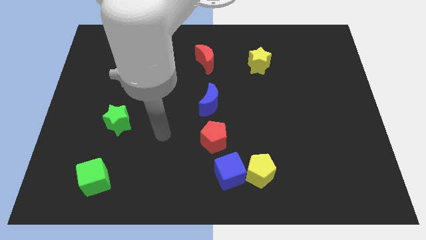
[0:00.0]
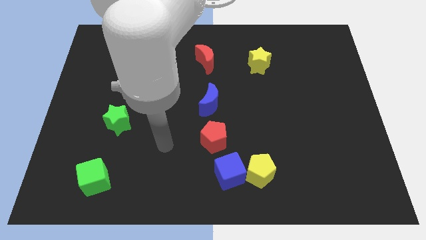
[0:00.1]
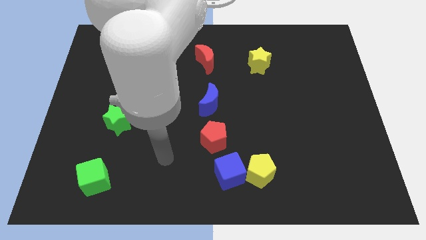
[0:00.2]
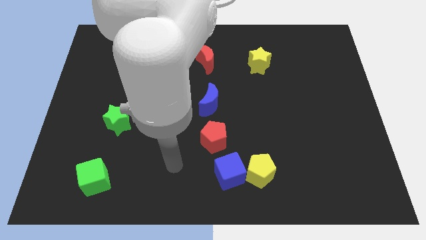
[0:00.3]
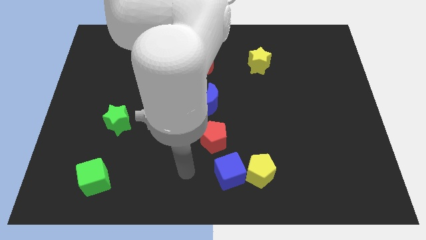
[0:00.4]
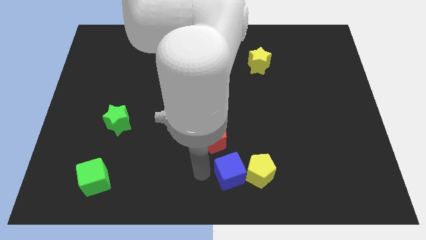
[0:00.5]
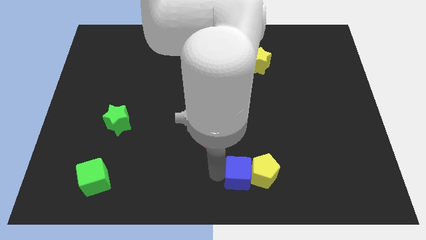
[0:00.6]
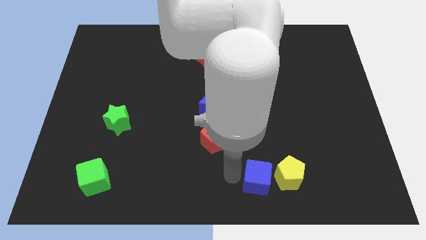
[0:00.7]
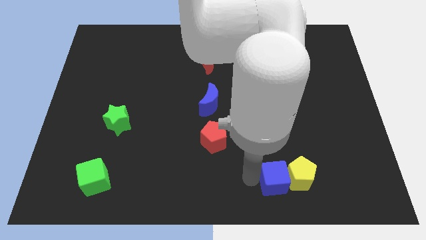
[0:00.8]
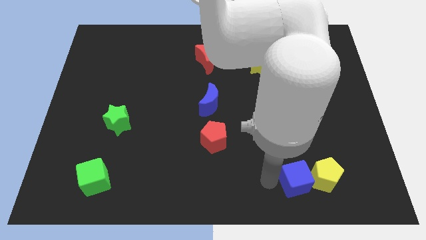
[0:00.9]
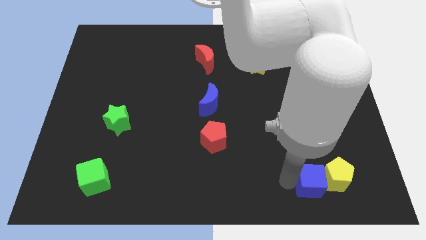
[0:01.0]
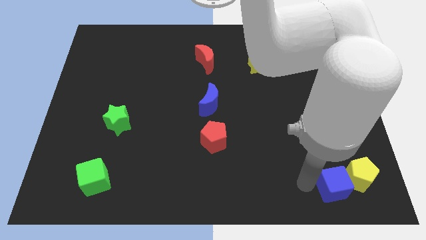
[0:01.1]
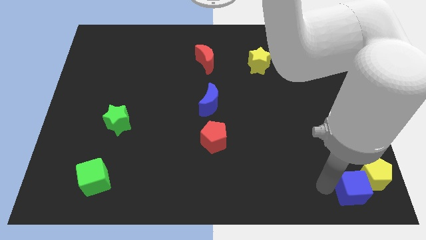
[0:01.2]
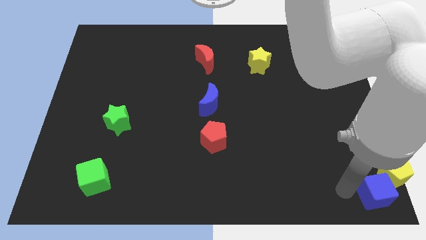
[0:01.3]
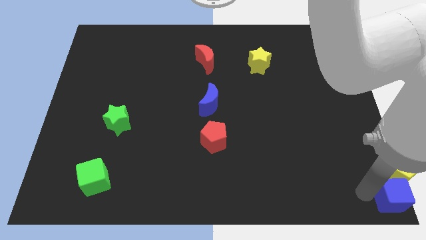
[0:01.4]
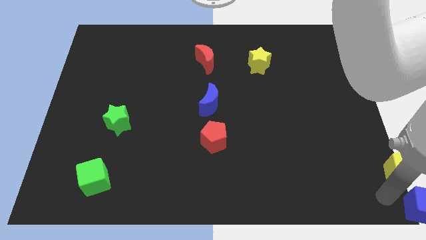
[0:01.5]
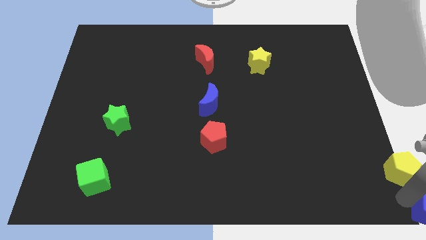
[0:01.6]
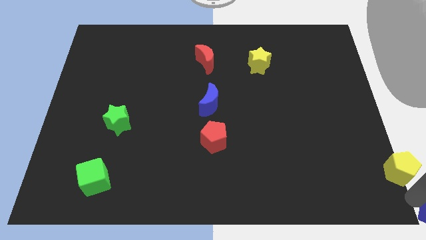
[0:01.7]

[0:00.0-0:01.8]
pull the yellow pentagon apart from the blue cube

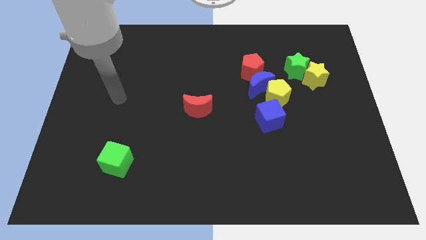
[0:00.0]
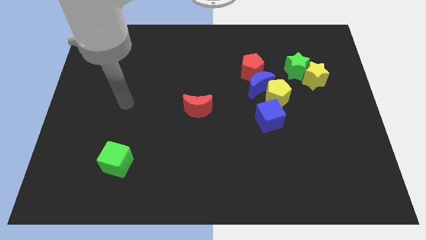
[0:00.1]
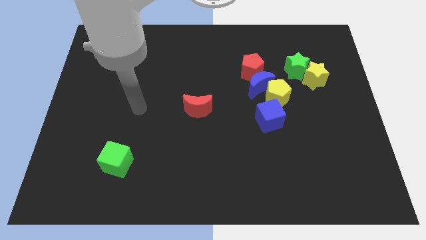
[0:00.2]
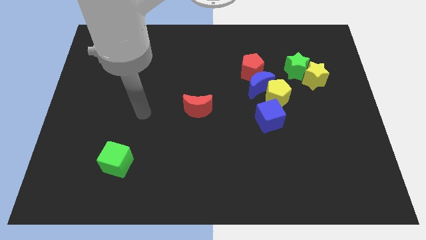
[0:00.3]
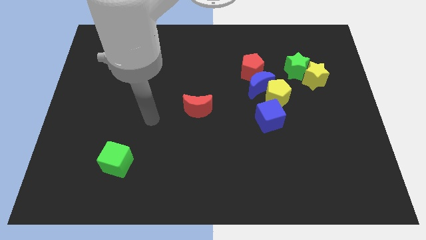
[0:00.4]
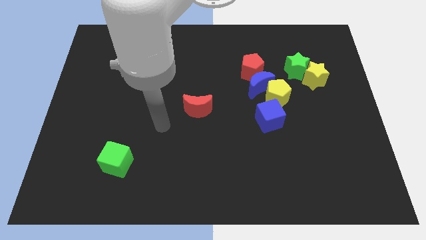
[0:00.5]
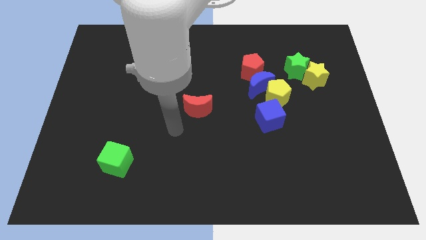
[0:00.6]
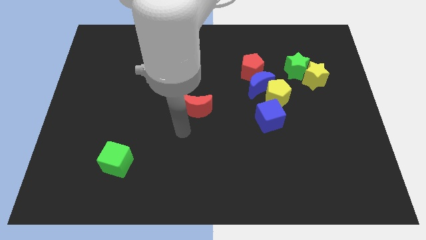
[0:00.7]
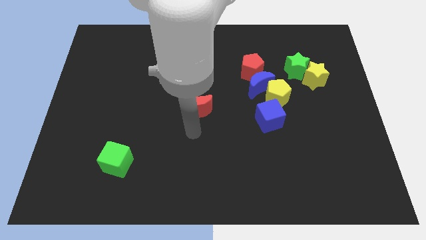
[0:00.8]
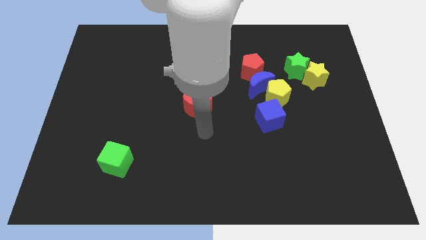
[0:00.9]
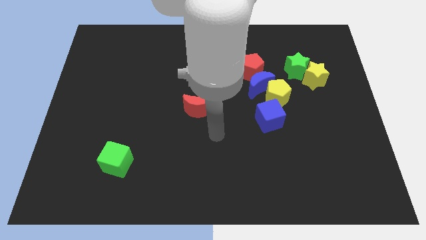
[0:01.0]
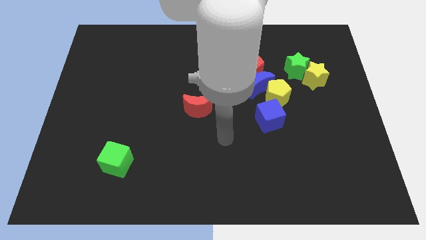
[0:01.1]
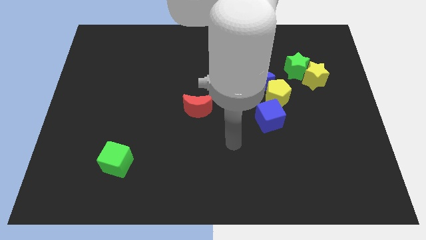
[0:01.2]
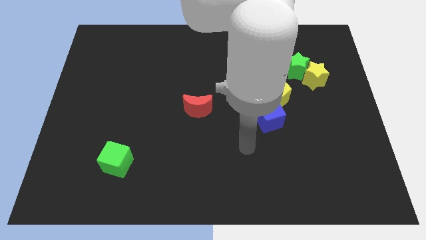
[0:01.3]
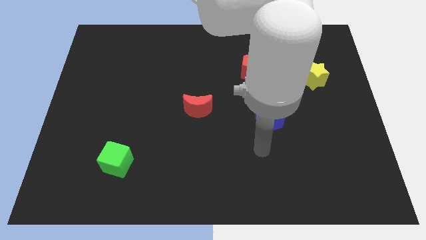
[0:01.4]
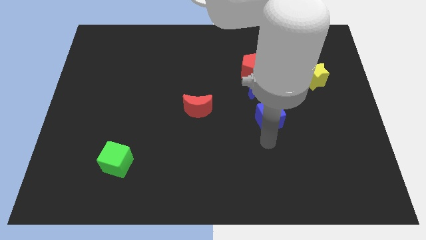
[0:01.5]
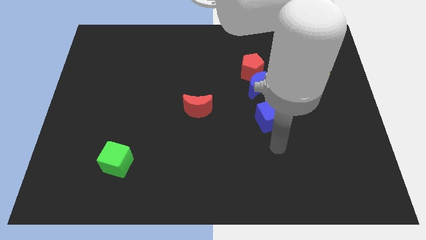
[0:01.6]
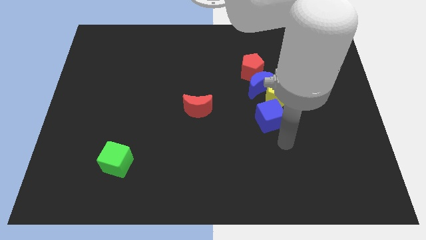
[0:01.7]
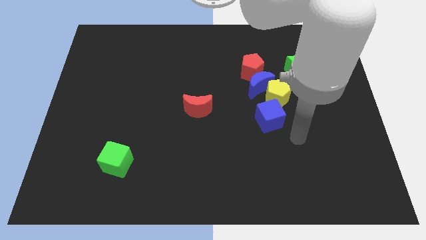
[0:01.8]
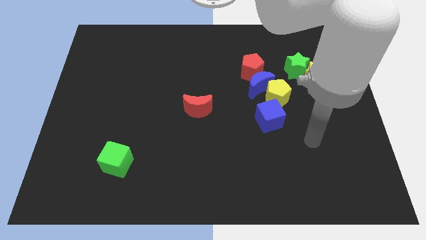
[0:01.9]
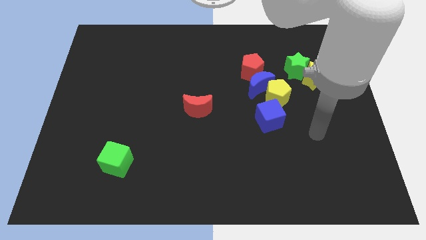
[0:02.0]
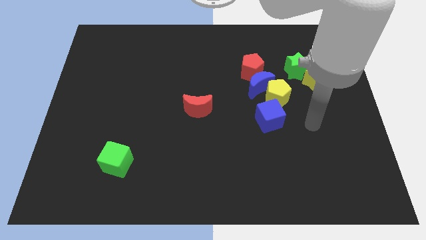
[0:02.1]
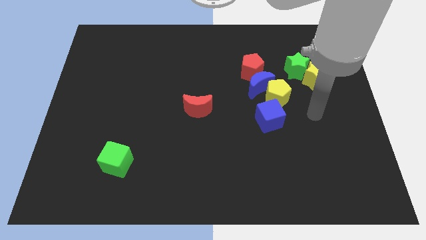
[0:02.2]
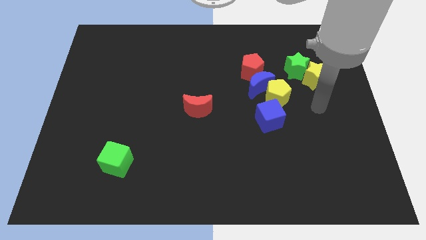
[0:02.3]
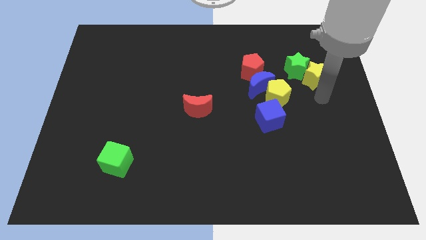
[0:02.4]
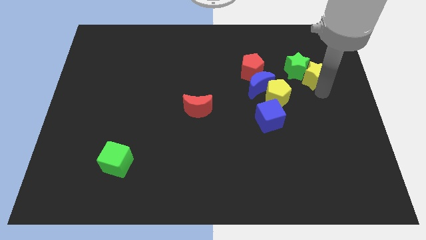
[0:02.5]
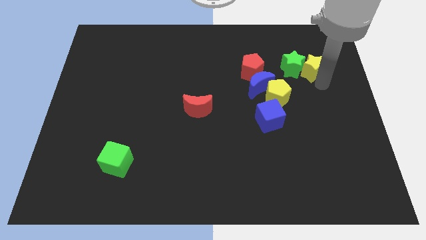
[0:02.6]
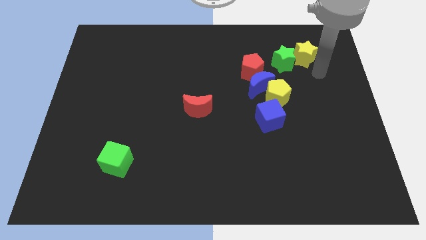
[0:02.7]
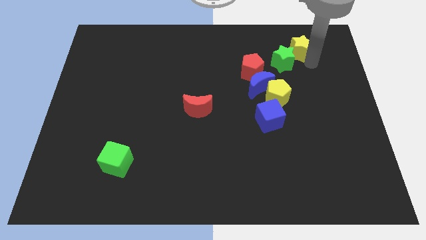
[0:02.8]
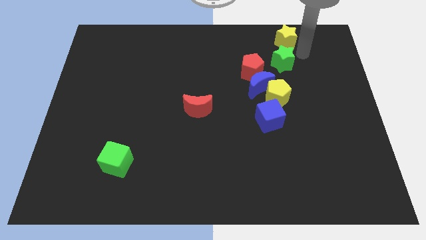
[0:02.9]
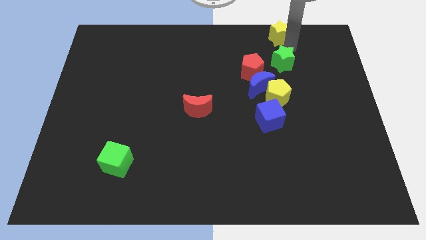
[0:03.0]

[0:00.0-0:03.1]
move the green star away from the yellow star

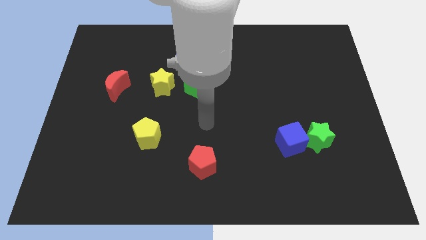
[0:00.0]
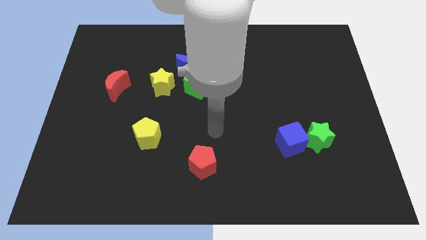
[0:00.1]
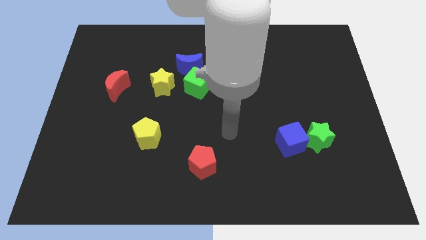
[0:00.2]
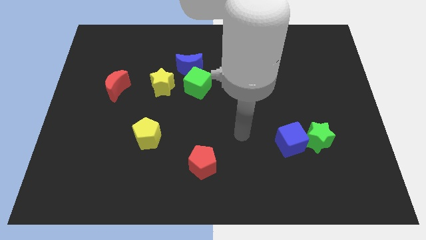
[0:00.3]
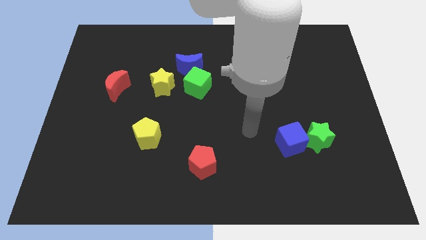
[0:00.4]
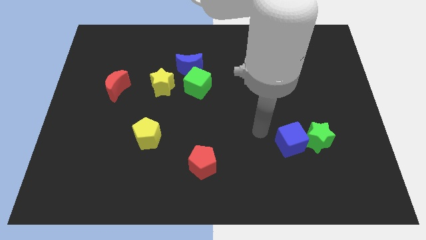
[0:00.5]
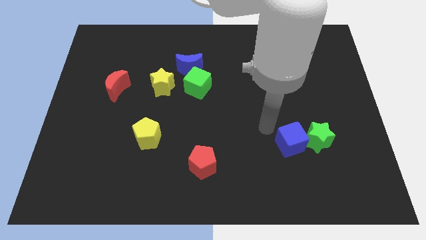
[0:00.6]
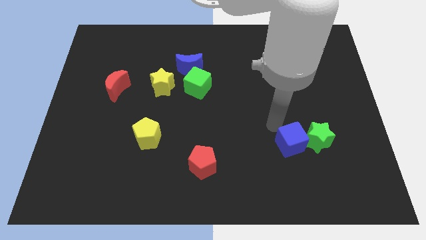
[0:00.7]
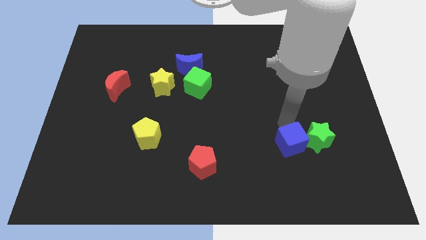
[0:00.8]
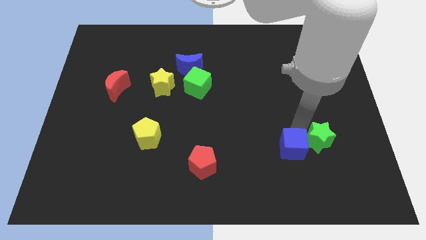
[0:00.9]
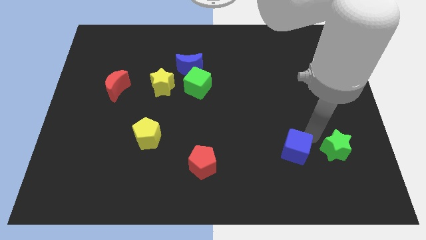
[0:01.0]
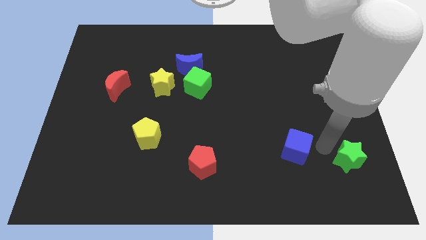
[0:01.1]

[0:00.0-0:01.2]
move the blue cube away from the green star

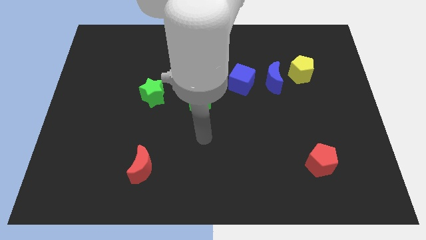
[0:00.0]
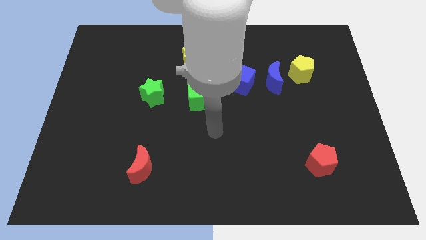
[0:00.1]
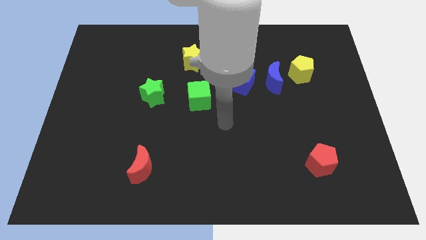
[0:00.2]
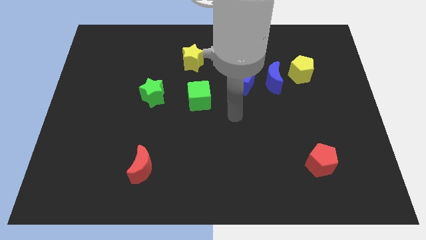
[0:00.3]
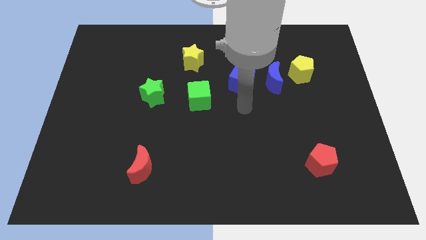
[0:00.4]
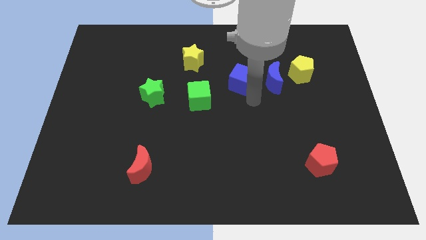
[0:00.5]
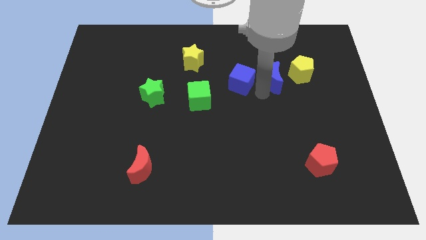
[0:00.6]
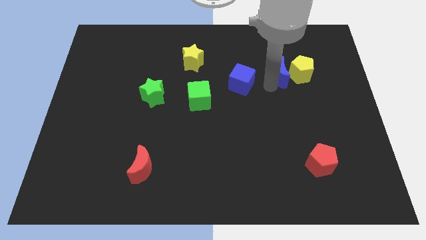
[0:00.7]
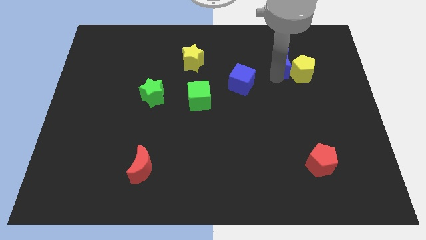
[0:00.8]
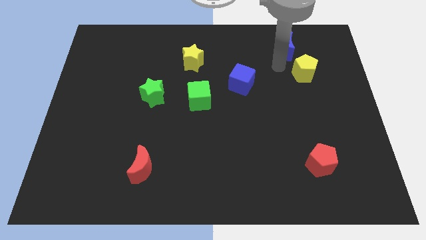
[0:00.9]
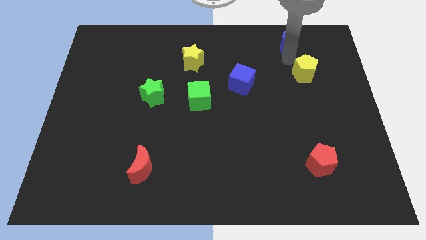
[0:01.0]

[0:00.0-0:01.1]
move the yellow pentagon away from the blue moon

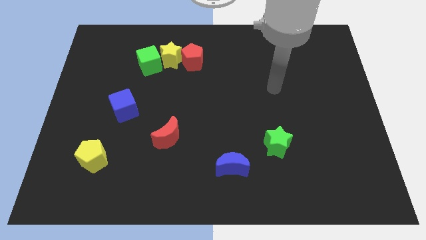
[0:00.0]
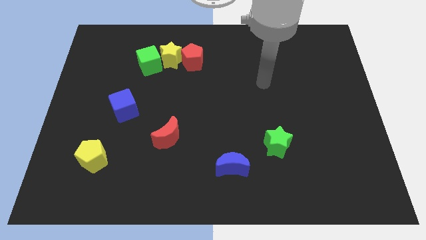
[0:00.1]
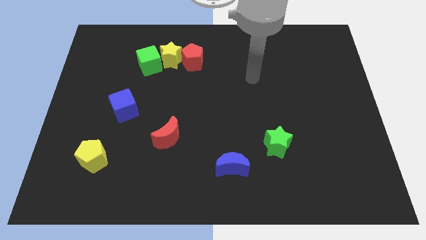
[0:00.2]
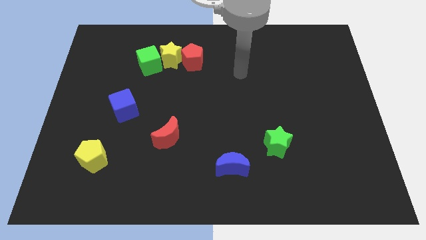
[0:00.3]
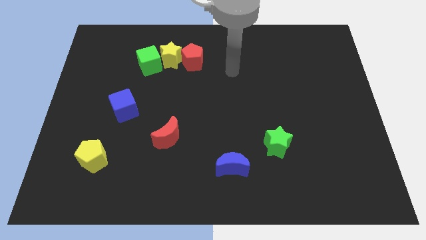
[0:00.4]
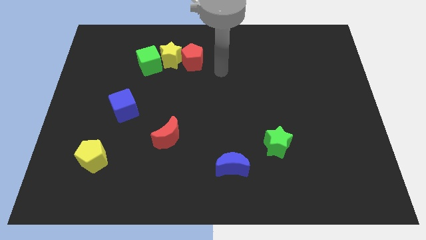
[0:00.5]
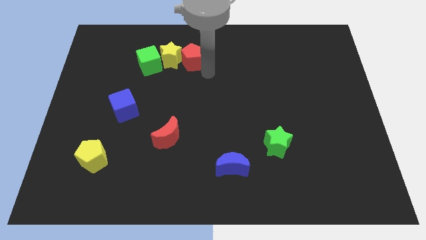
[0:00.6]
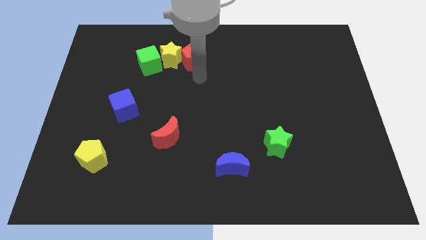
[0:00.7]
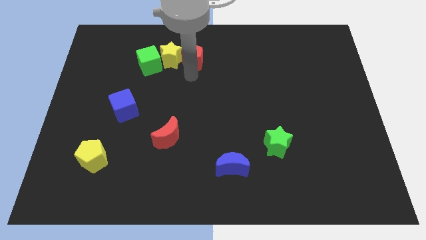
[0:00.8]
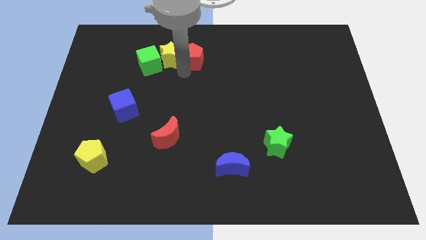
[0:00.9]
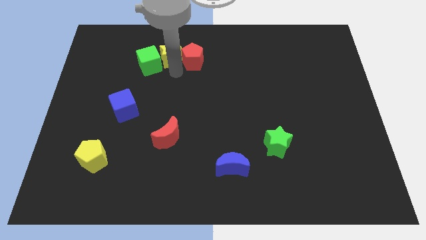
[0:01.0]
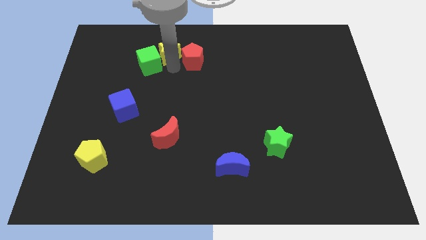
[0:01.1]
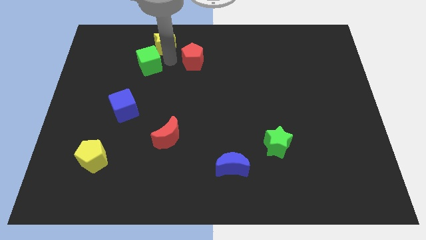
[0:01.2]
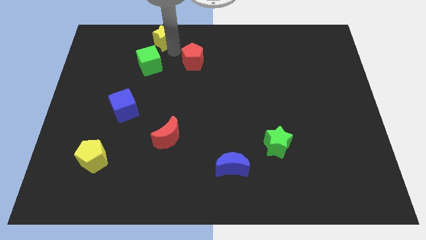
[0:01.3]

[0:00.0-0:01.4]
pull the red pentagon apart from the yellow star

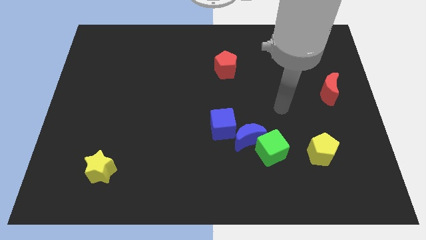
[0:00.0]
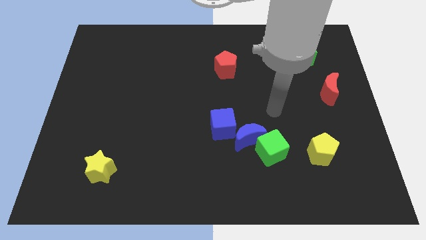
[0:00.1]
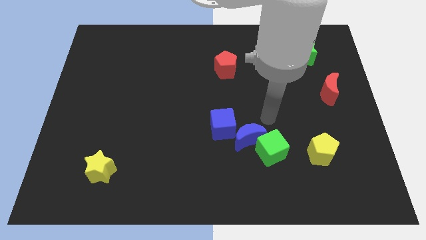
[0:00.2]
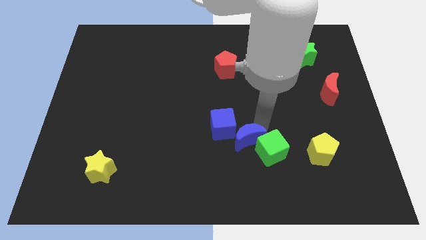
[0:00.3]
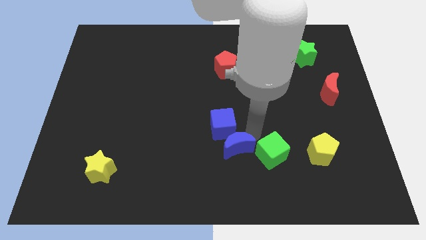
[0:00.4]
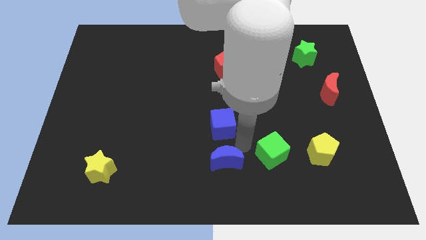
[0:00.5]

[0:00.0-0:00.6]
separate the green cube from the blue moon

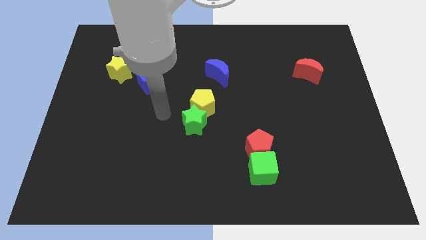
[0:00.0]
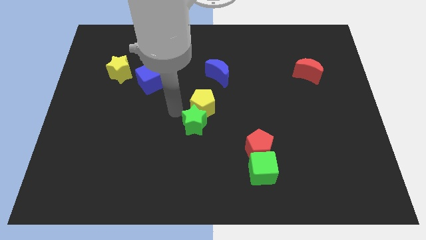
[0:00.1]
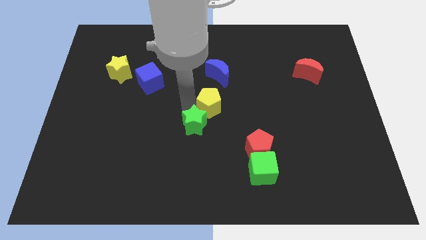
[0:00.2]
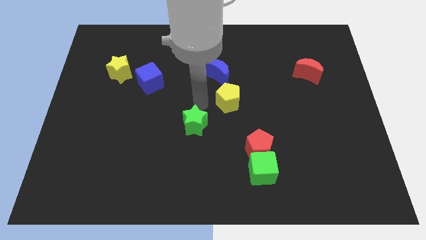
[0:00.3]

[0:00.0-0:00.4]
separate the green star from the yellow pentagon
